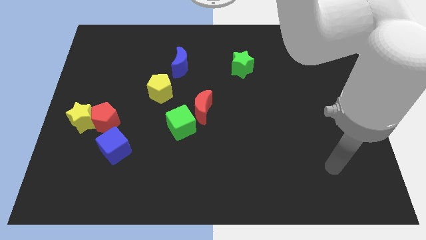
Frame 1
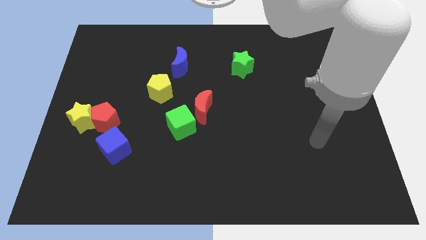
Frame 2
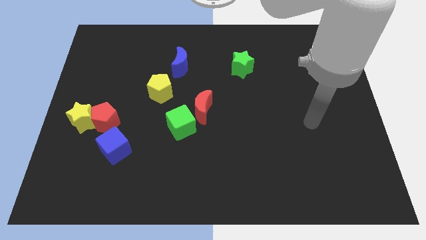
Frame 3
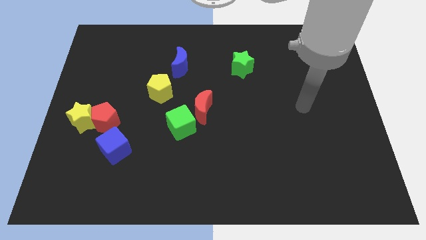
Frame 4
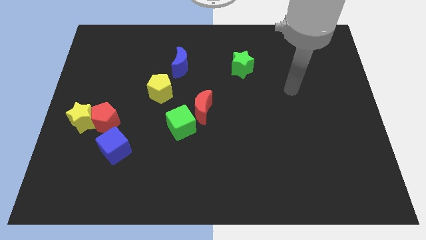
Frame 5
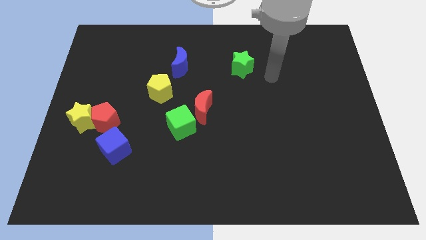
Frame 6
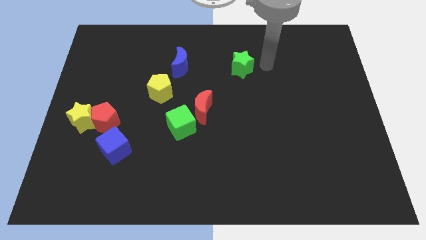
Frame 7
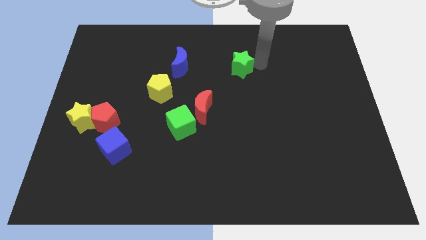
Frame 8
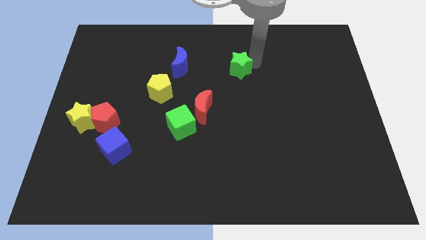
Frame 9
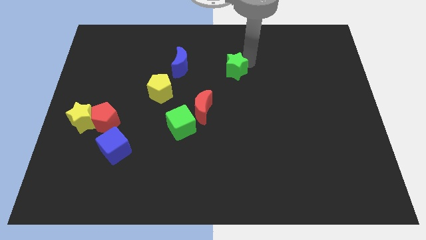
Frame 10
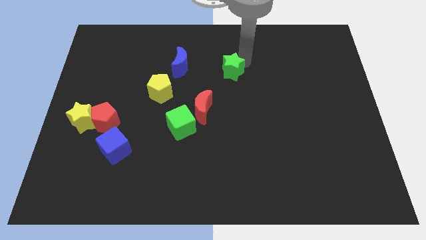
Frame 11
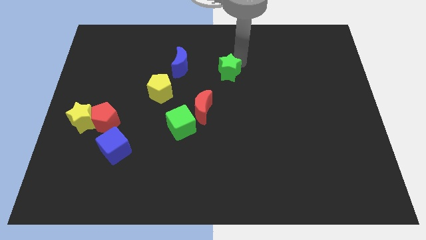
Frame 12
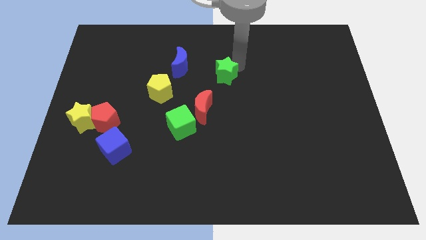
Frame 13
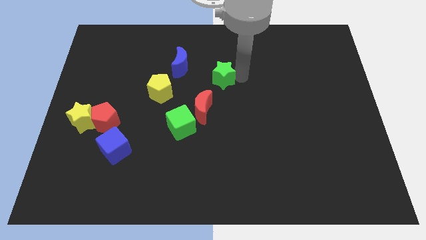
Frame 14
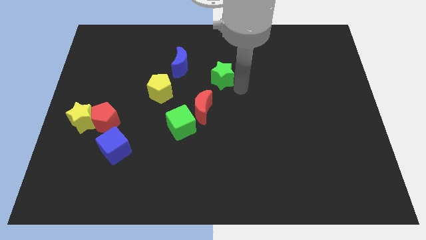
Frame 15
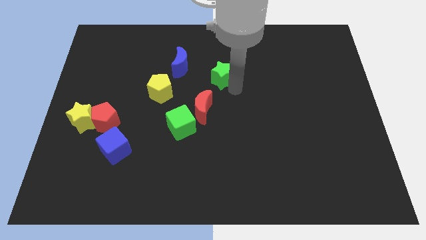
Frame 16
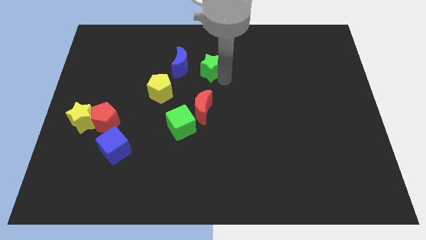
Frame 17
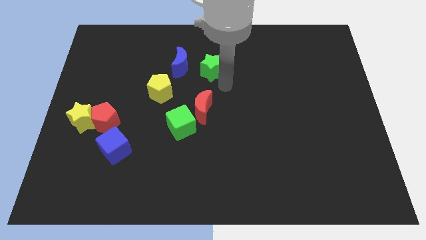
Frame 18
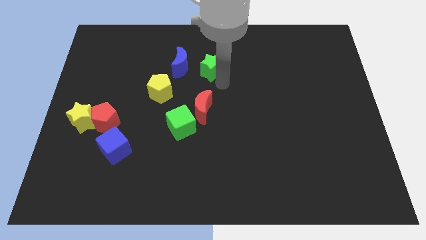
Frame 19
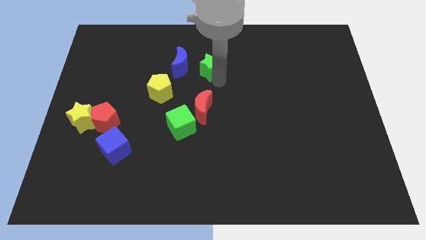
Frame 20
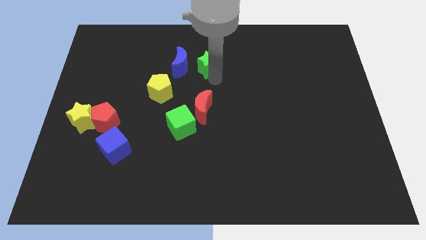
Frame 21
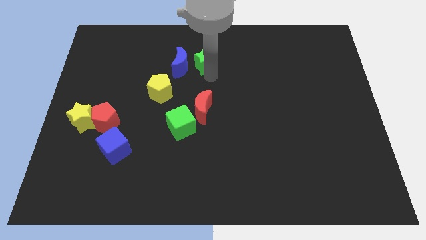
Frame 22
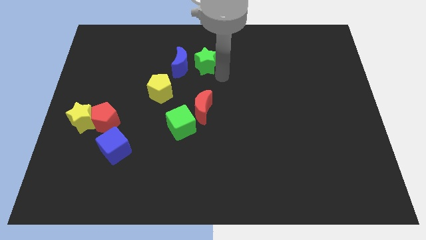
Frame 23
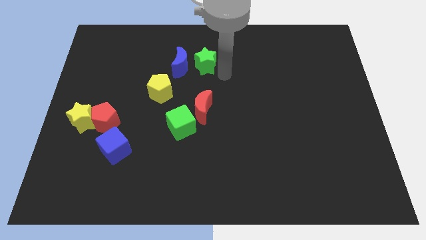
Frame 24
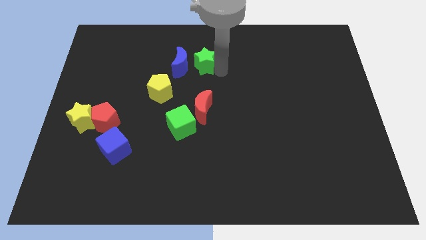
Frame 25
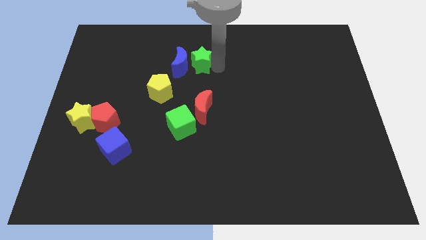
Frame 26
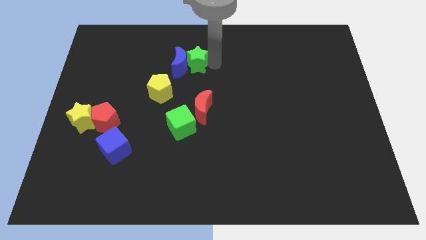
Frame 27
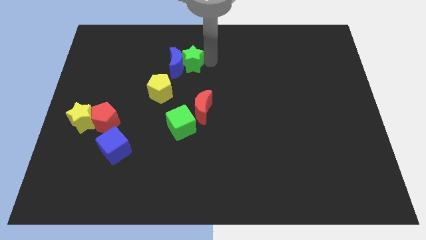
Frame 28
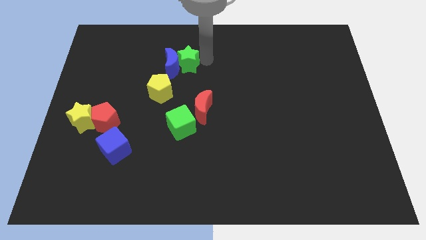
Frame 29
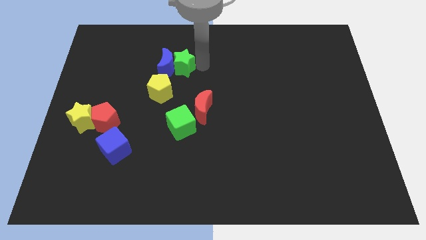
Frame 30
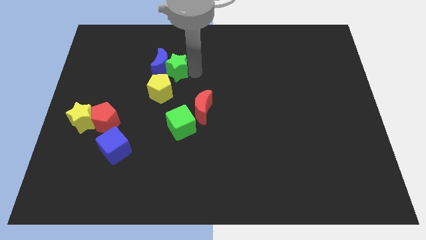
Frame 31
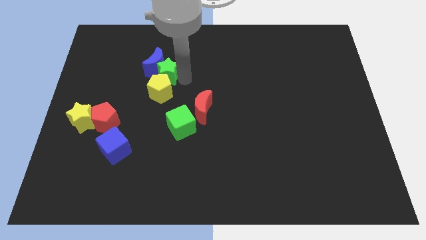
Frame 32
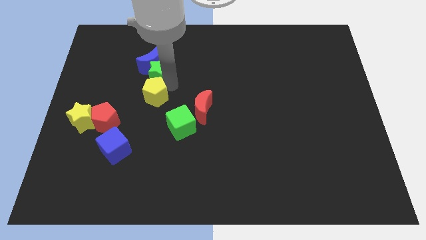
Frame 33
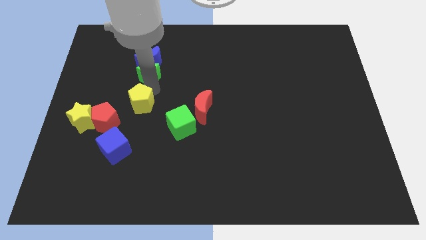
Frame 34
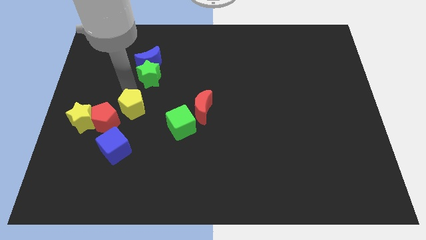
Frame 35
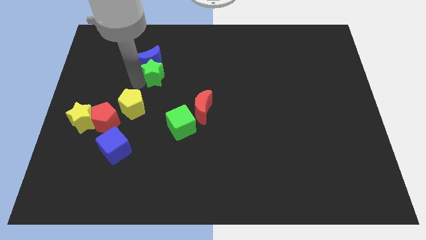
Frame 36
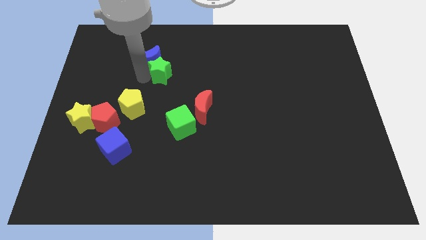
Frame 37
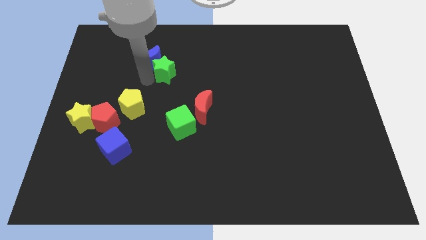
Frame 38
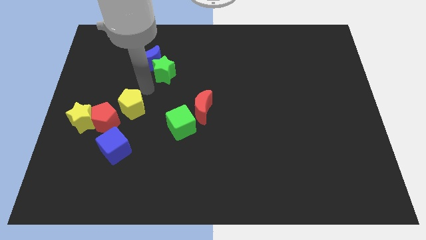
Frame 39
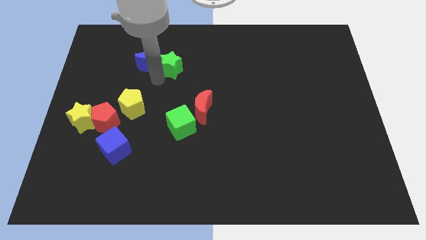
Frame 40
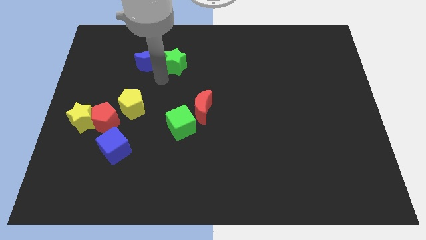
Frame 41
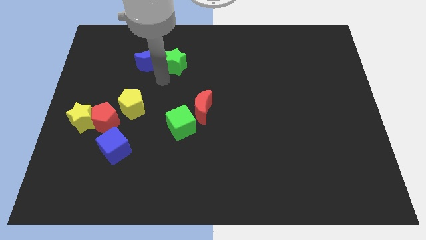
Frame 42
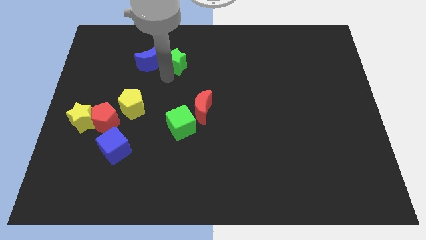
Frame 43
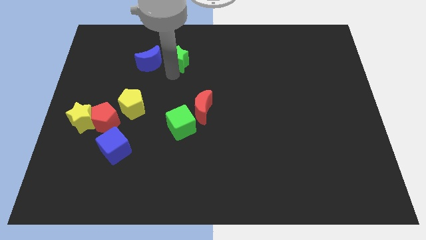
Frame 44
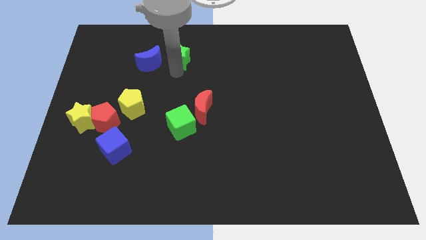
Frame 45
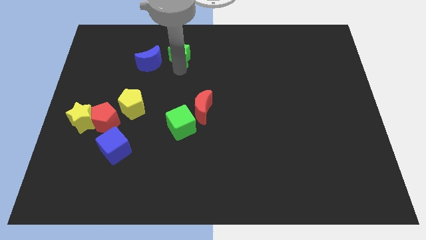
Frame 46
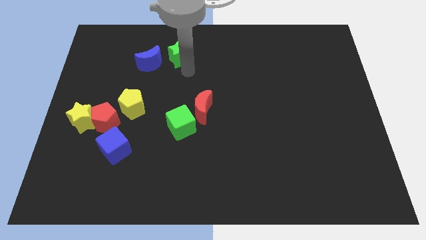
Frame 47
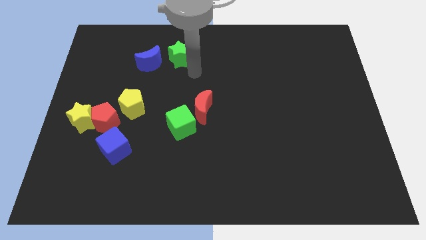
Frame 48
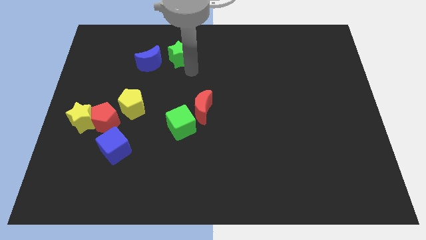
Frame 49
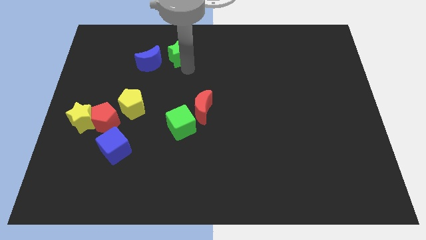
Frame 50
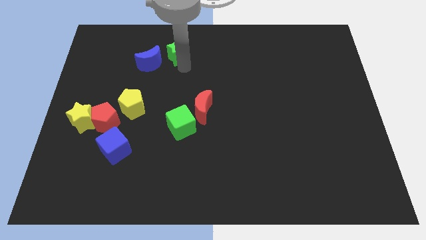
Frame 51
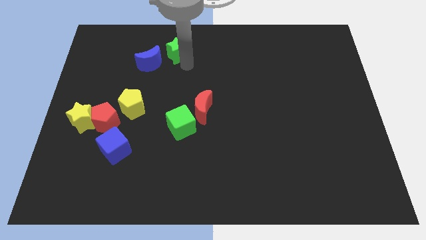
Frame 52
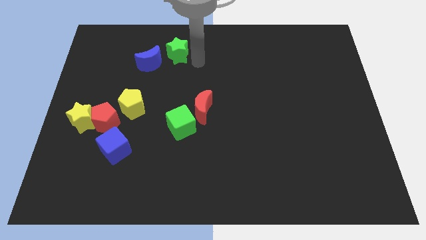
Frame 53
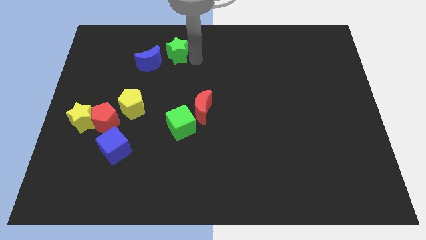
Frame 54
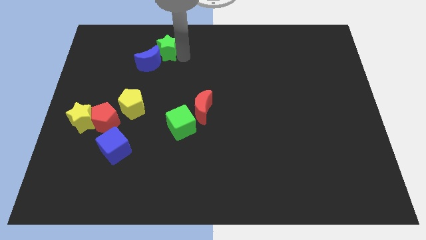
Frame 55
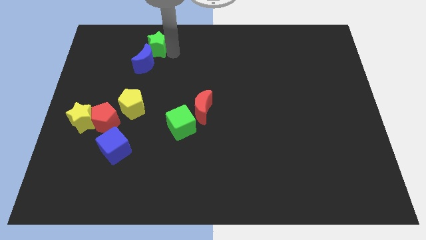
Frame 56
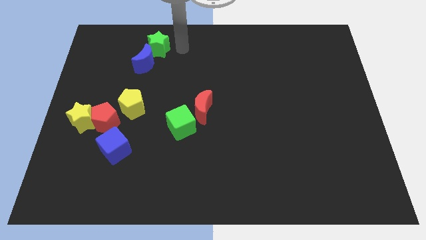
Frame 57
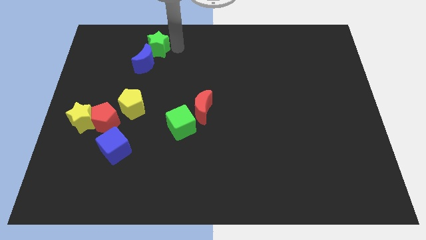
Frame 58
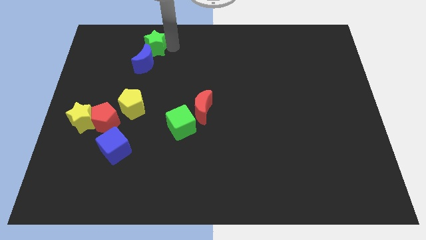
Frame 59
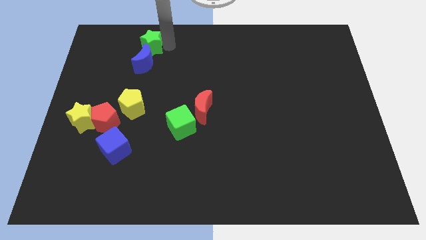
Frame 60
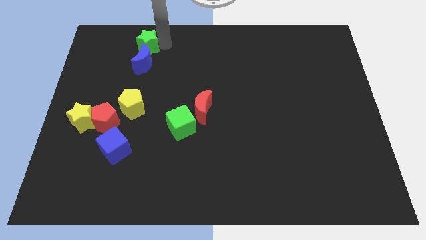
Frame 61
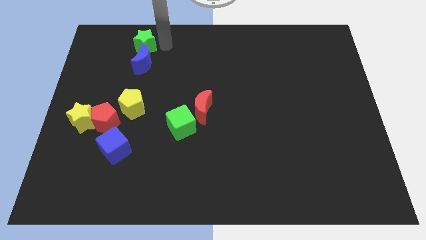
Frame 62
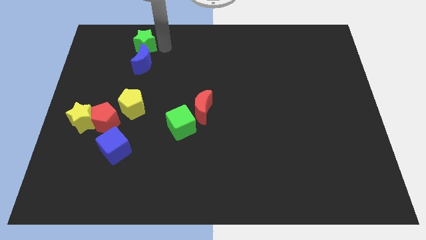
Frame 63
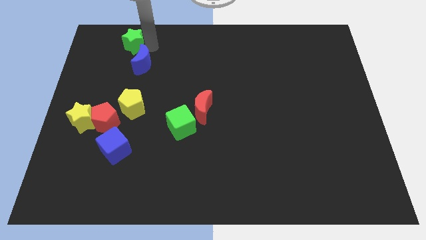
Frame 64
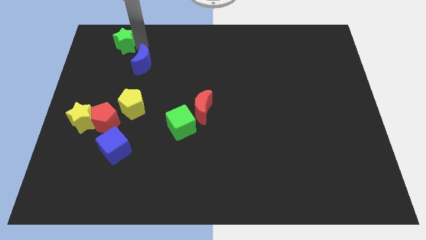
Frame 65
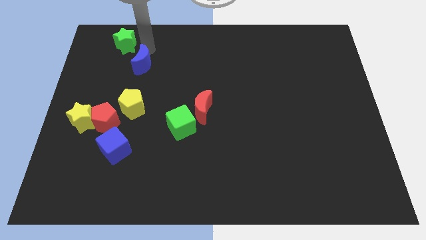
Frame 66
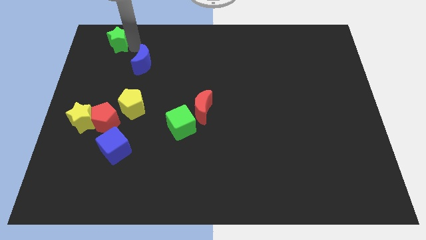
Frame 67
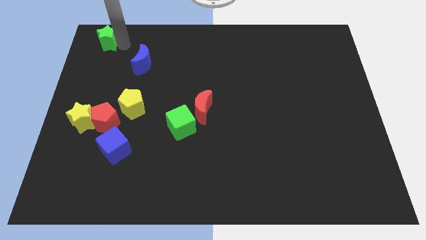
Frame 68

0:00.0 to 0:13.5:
push the green star to the top left
